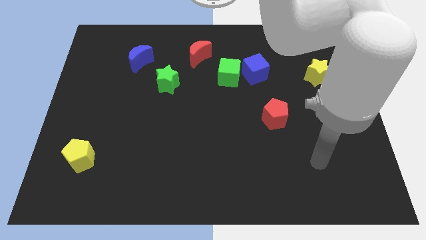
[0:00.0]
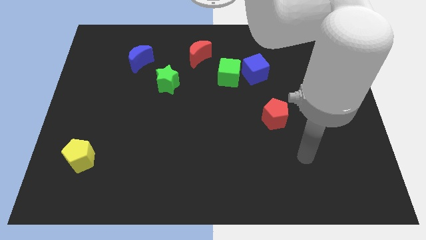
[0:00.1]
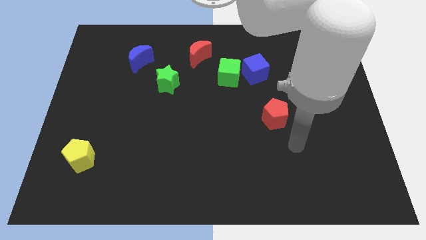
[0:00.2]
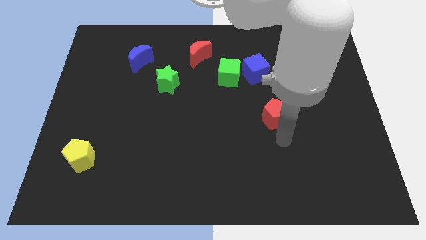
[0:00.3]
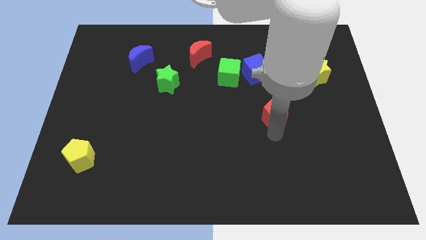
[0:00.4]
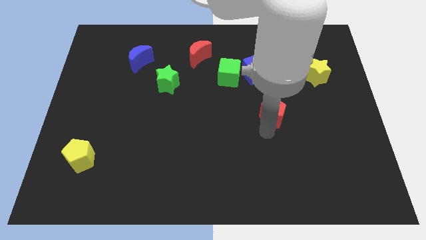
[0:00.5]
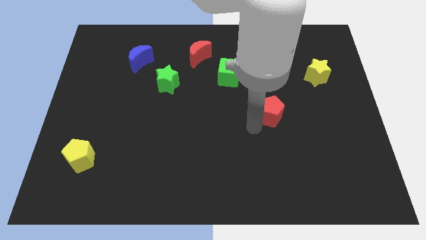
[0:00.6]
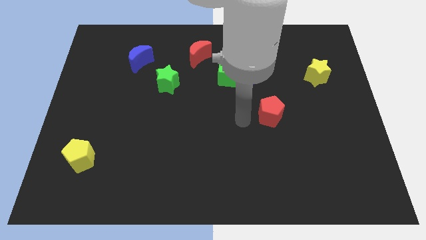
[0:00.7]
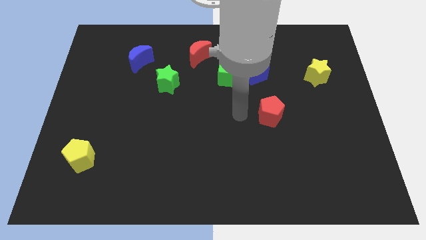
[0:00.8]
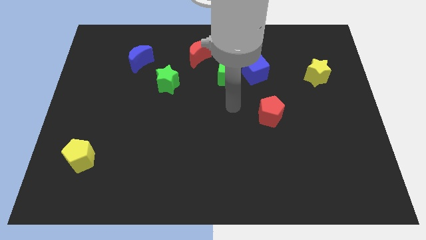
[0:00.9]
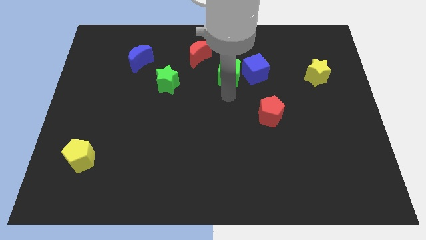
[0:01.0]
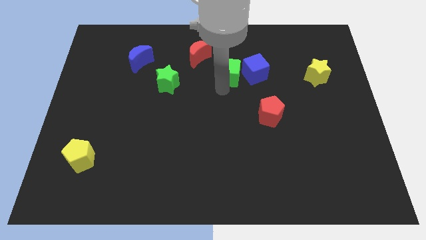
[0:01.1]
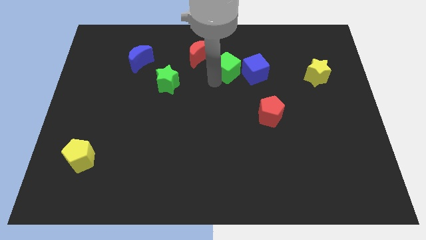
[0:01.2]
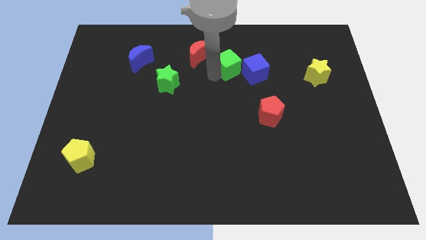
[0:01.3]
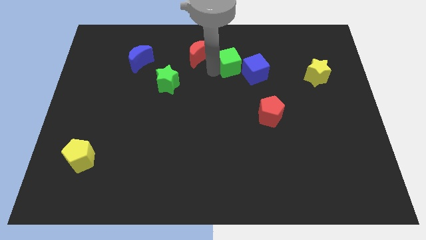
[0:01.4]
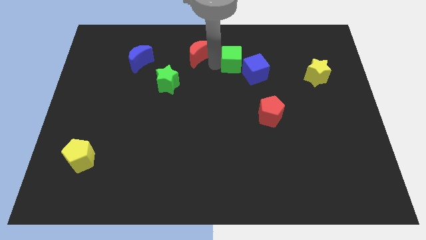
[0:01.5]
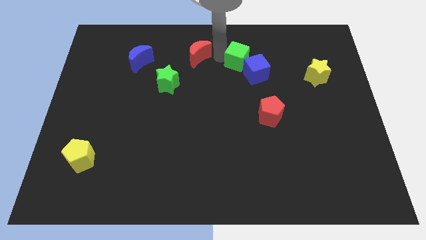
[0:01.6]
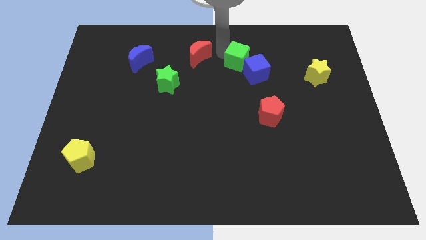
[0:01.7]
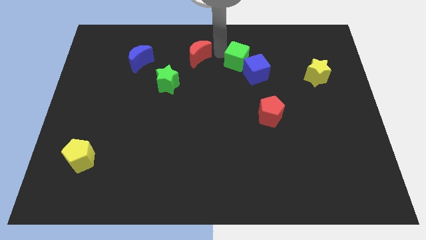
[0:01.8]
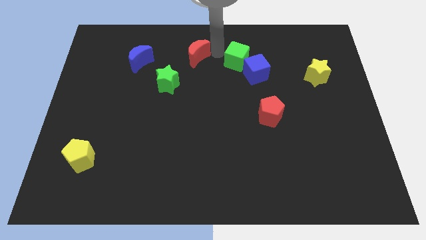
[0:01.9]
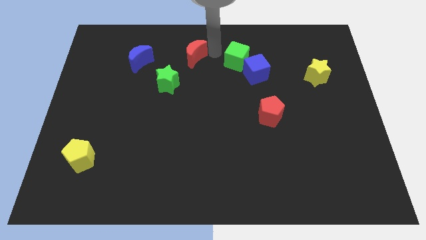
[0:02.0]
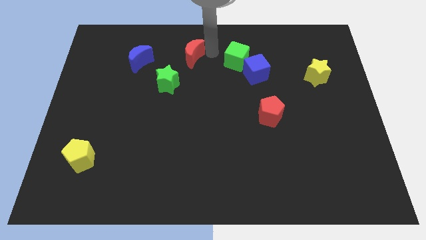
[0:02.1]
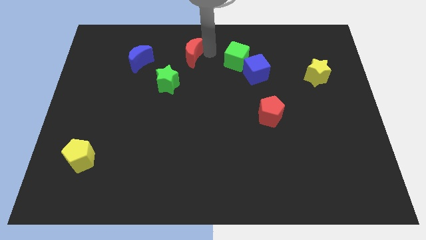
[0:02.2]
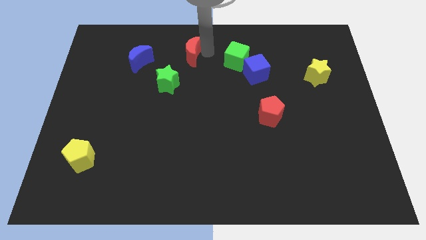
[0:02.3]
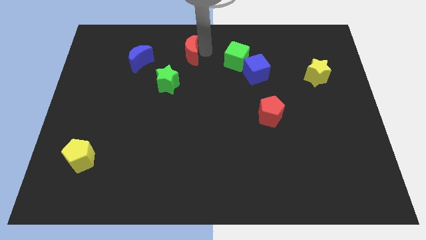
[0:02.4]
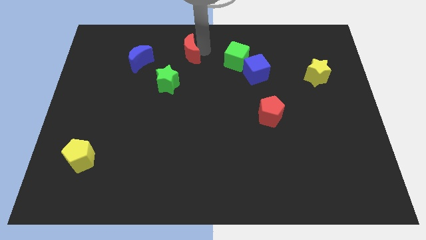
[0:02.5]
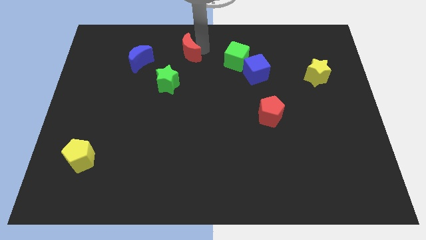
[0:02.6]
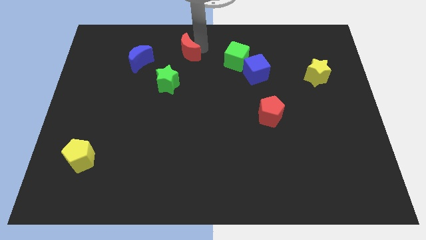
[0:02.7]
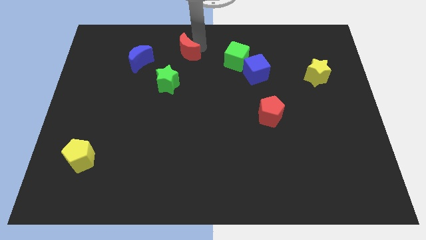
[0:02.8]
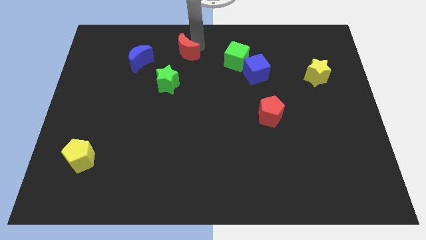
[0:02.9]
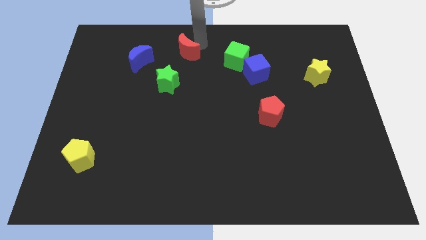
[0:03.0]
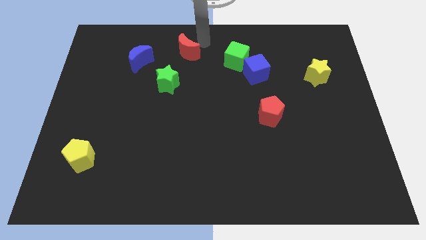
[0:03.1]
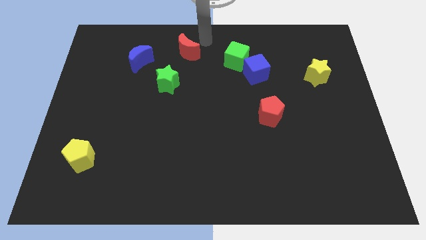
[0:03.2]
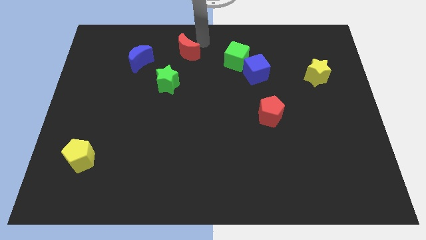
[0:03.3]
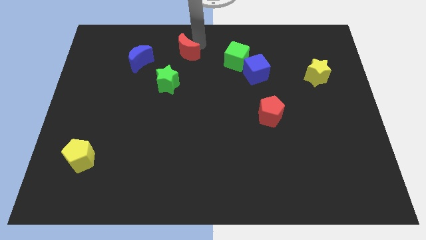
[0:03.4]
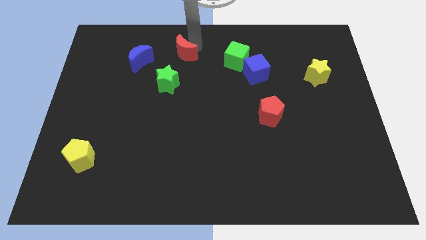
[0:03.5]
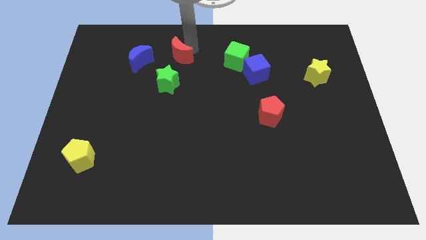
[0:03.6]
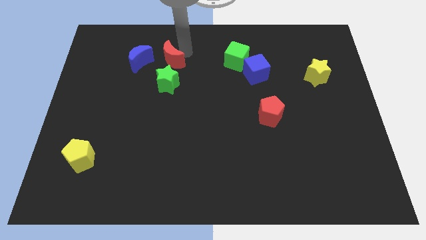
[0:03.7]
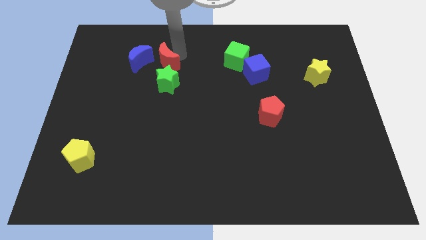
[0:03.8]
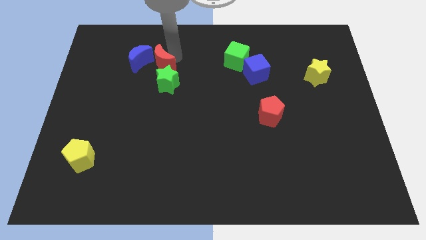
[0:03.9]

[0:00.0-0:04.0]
slide the red moon a bit diagonally downwards and to the left

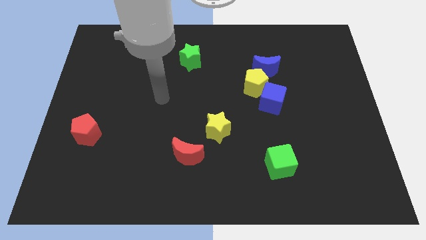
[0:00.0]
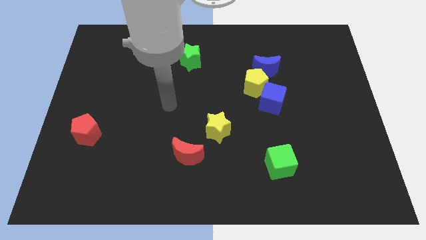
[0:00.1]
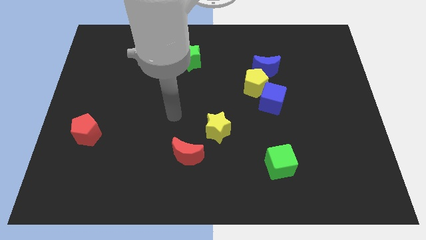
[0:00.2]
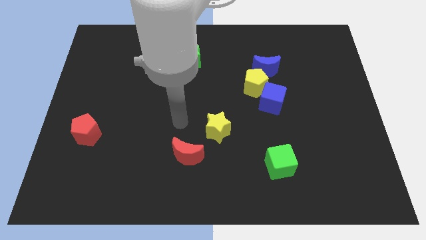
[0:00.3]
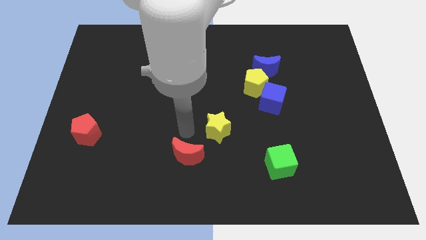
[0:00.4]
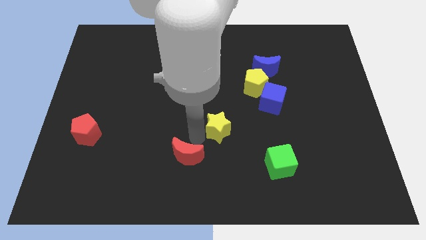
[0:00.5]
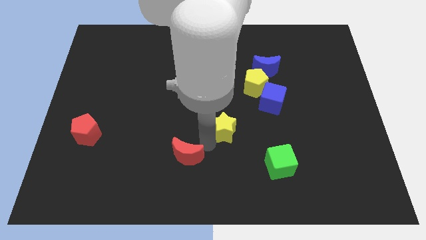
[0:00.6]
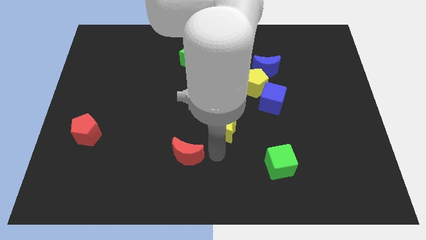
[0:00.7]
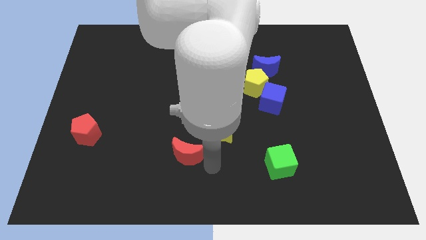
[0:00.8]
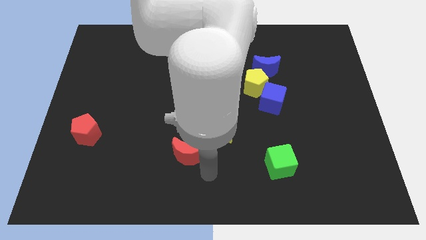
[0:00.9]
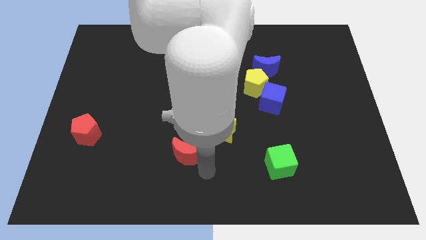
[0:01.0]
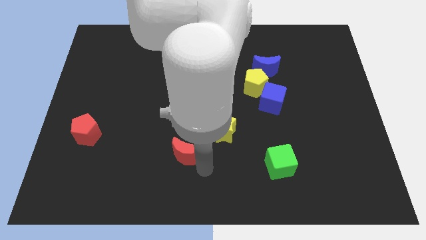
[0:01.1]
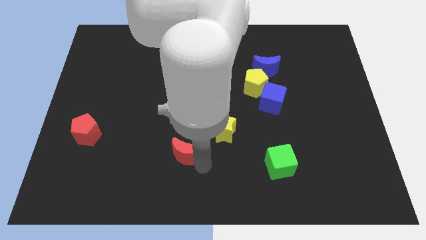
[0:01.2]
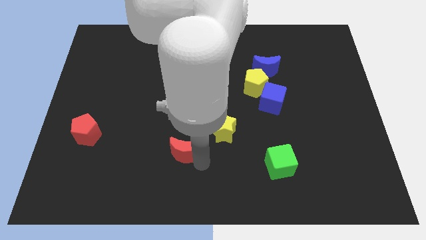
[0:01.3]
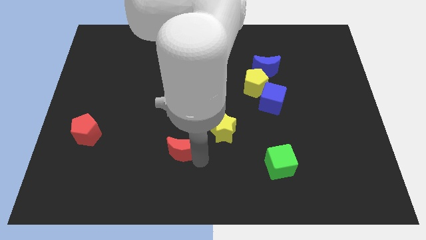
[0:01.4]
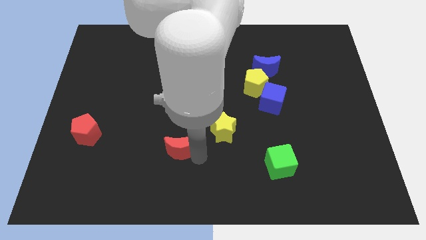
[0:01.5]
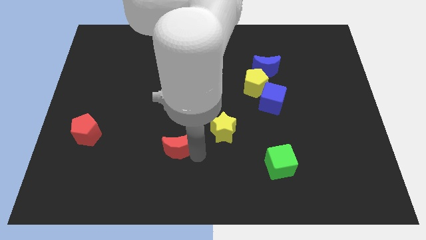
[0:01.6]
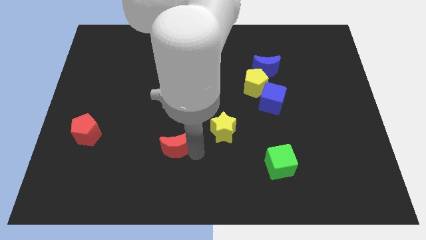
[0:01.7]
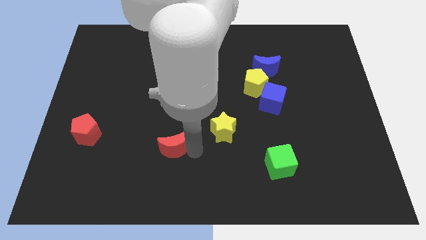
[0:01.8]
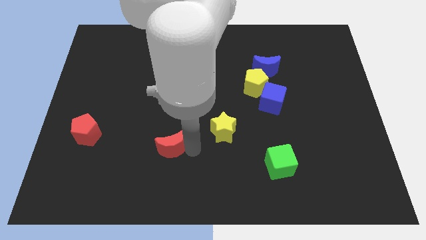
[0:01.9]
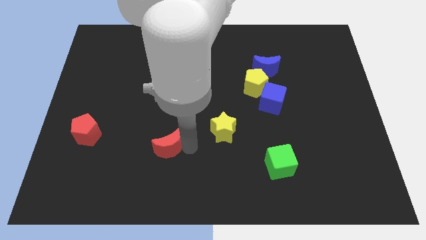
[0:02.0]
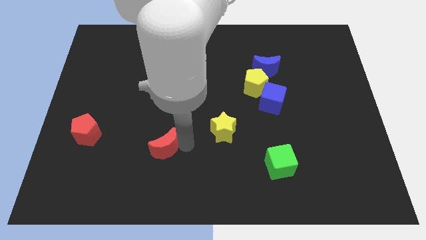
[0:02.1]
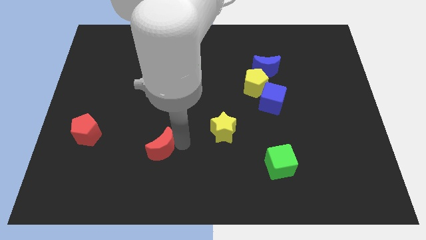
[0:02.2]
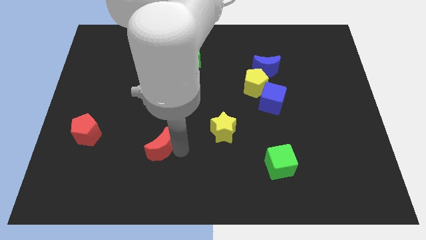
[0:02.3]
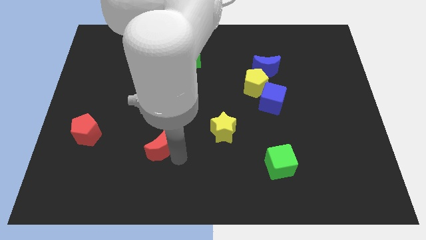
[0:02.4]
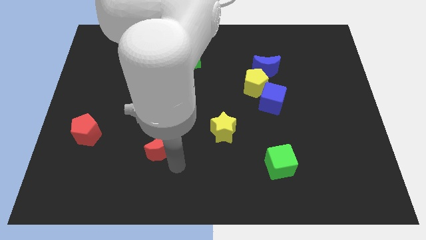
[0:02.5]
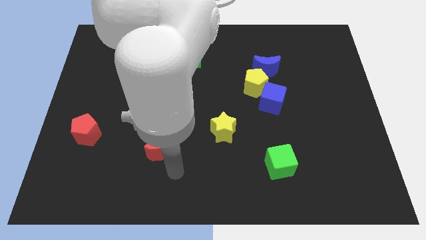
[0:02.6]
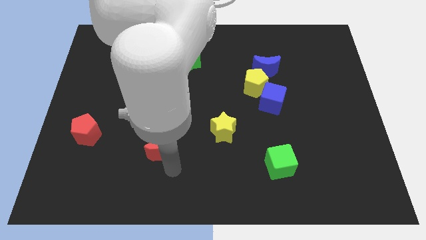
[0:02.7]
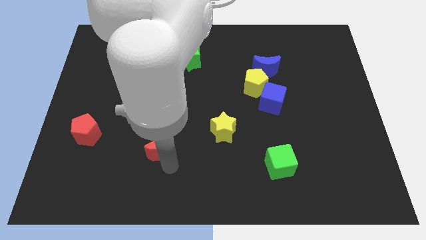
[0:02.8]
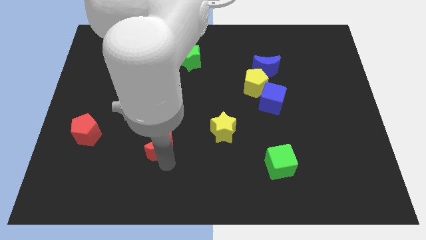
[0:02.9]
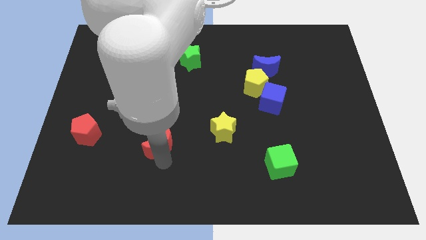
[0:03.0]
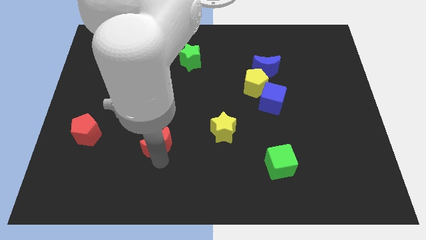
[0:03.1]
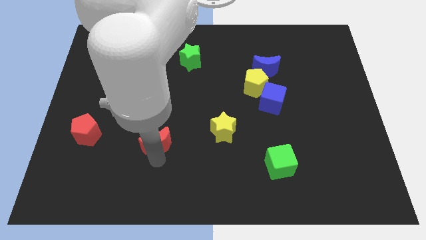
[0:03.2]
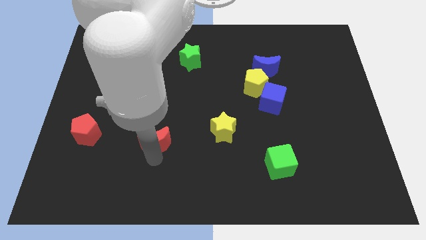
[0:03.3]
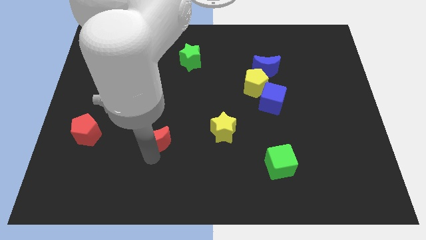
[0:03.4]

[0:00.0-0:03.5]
move the red moon up and to the left somewhat
